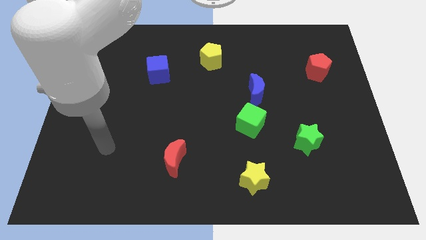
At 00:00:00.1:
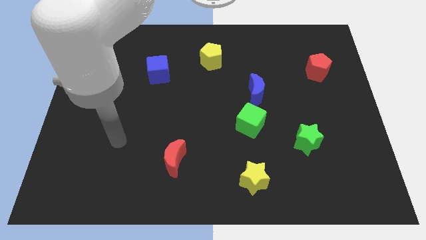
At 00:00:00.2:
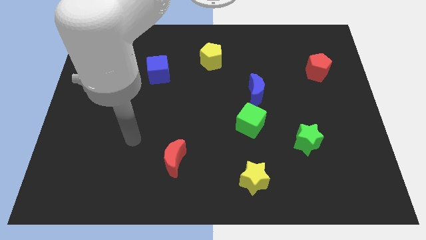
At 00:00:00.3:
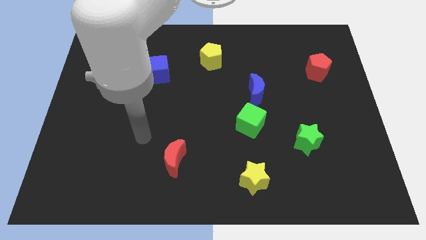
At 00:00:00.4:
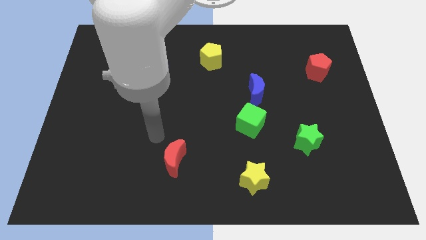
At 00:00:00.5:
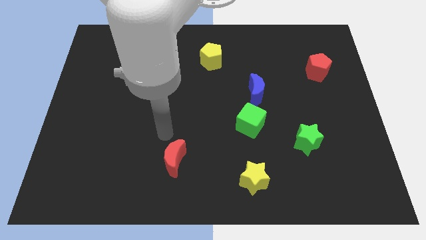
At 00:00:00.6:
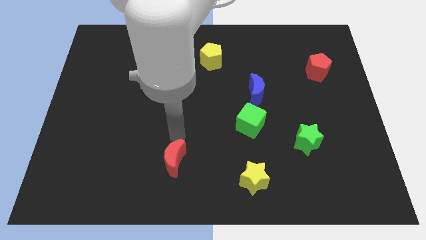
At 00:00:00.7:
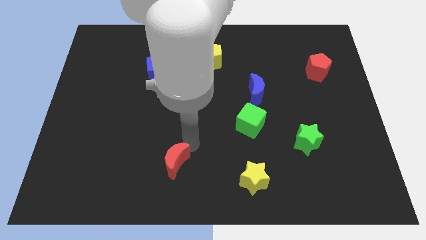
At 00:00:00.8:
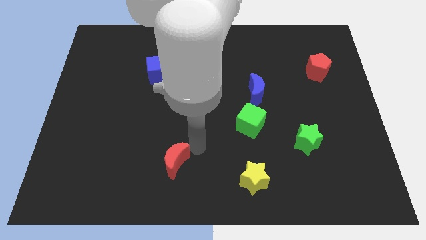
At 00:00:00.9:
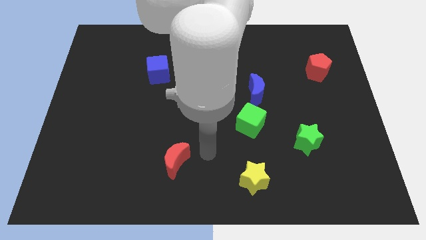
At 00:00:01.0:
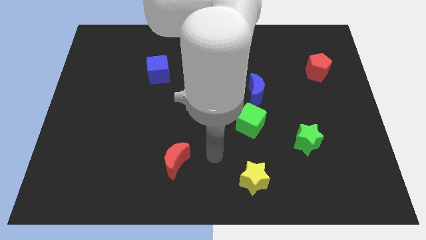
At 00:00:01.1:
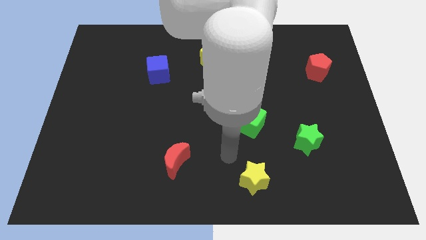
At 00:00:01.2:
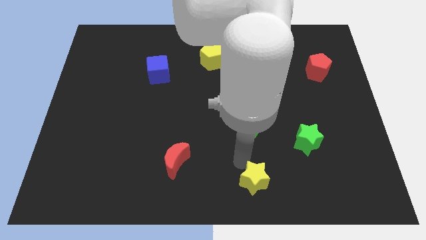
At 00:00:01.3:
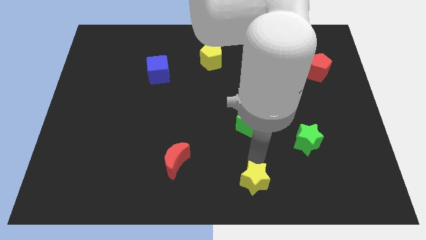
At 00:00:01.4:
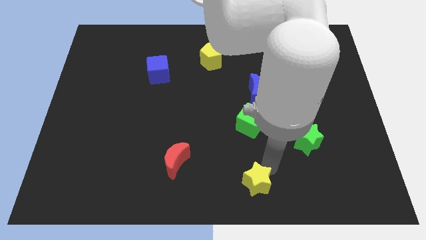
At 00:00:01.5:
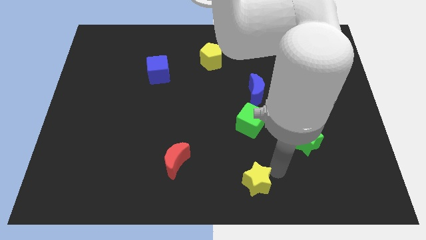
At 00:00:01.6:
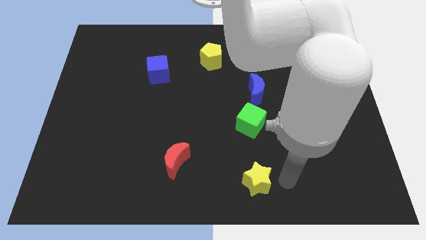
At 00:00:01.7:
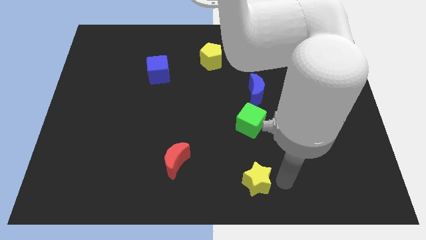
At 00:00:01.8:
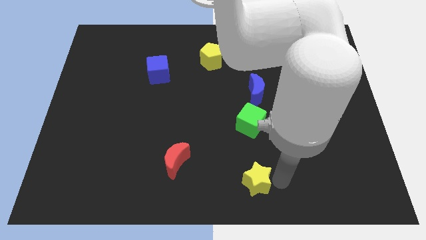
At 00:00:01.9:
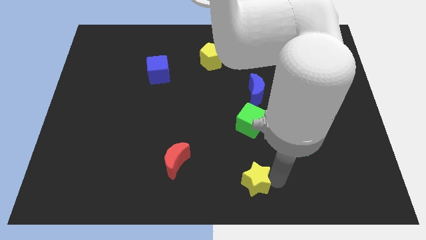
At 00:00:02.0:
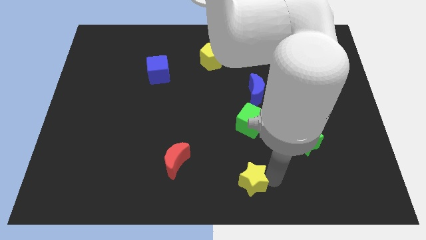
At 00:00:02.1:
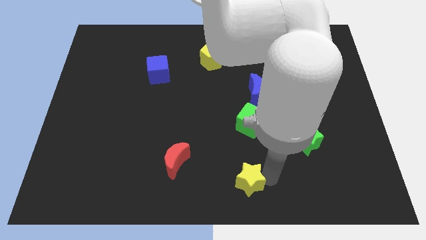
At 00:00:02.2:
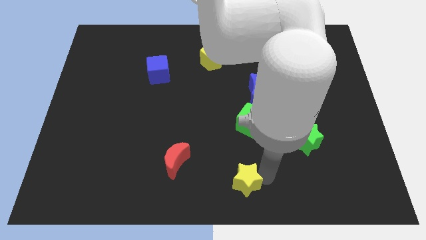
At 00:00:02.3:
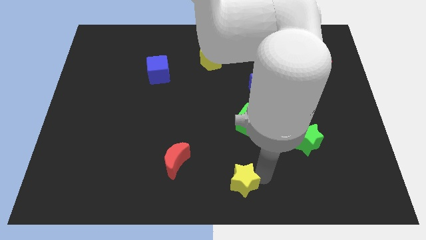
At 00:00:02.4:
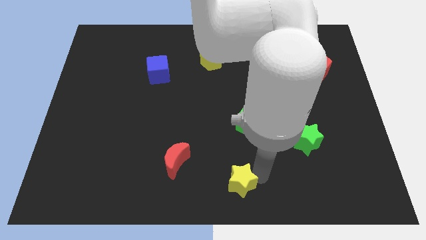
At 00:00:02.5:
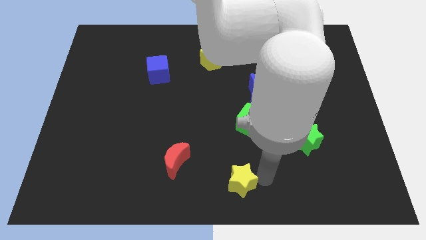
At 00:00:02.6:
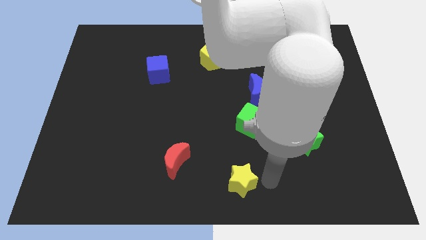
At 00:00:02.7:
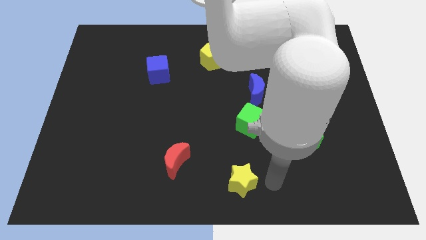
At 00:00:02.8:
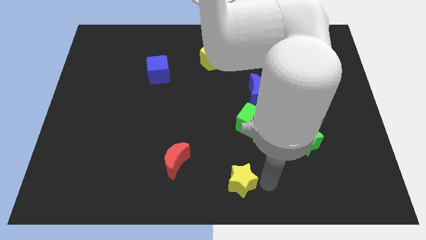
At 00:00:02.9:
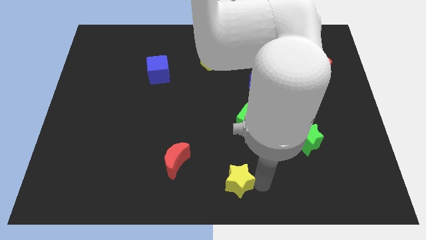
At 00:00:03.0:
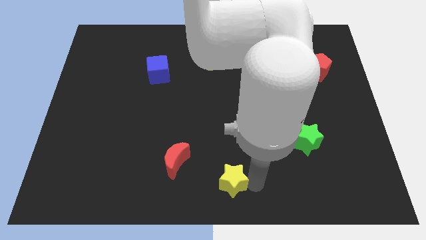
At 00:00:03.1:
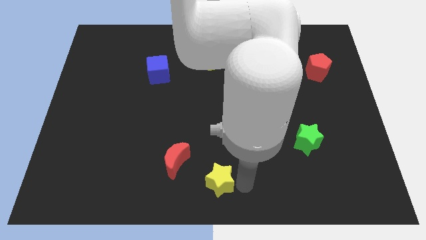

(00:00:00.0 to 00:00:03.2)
push the yellow star left somewhat

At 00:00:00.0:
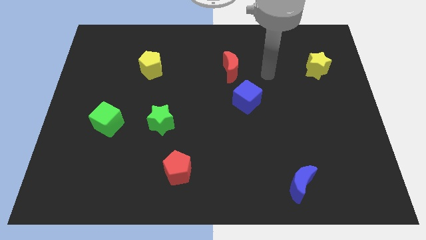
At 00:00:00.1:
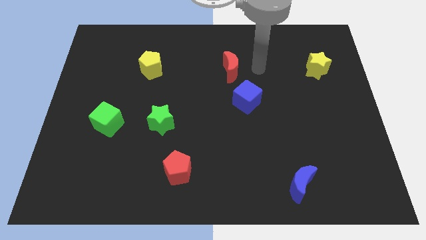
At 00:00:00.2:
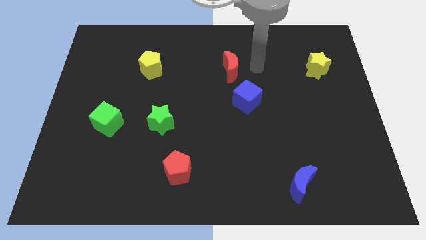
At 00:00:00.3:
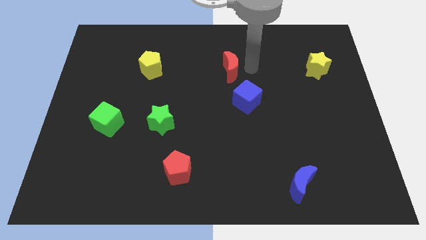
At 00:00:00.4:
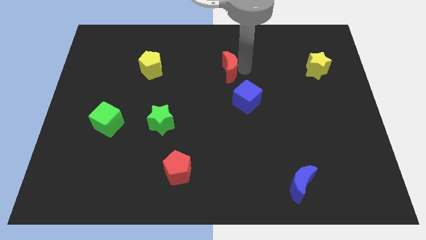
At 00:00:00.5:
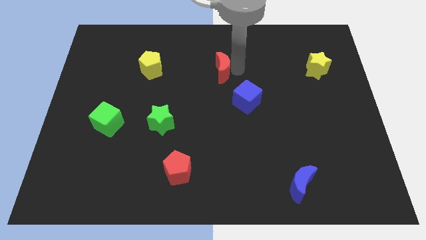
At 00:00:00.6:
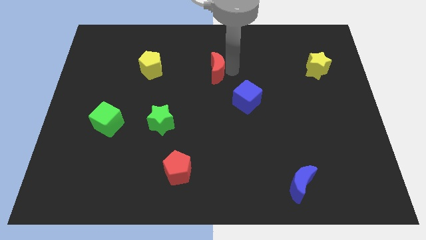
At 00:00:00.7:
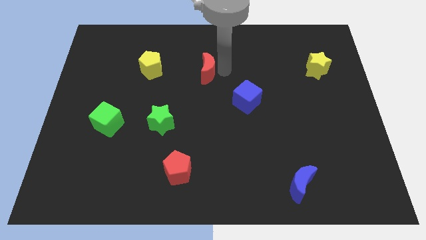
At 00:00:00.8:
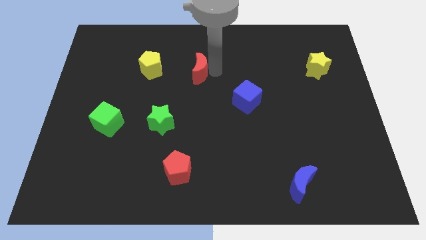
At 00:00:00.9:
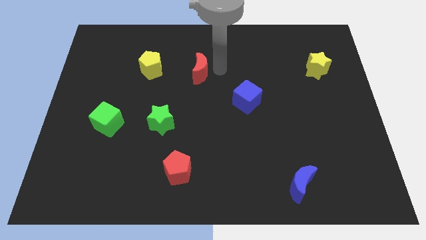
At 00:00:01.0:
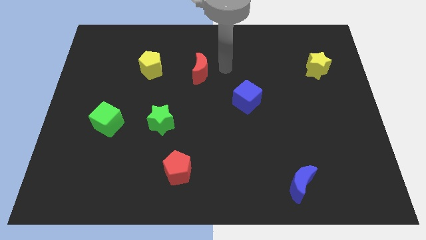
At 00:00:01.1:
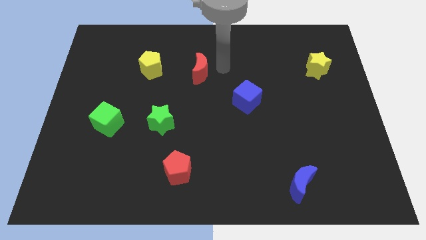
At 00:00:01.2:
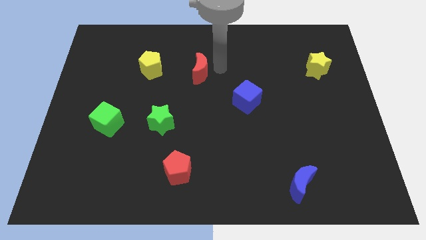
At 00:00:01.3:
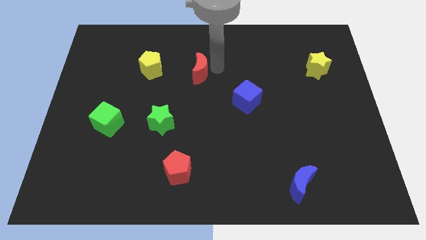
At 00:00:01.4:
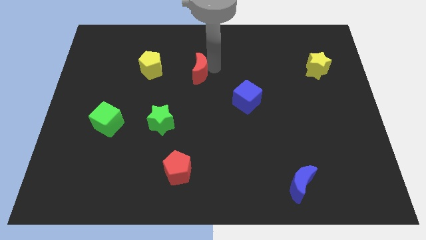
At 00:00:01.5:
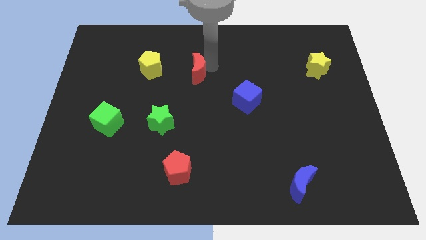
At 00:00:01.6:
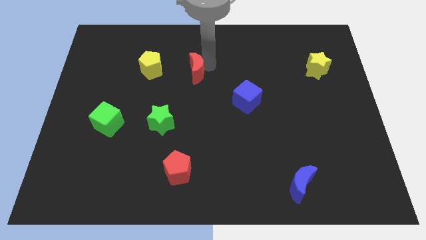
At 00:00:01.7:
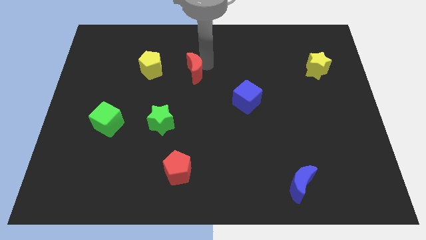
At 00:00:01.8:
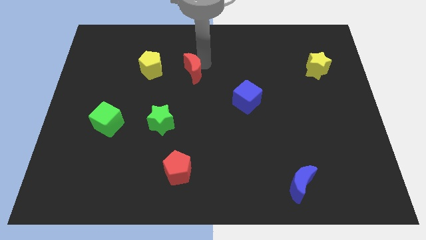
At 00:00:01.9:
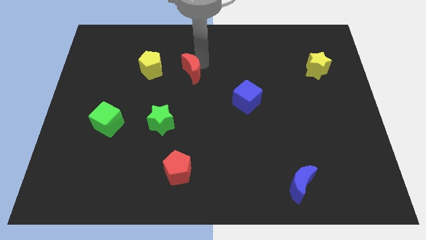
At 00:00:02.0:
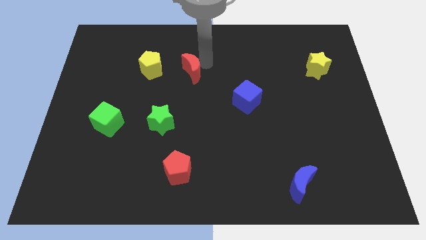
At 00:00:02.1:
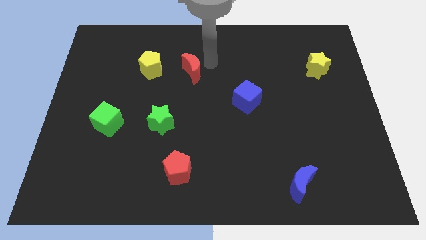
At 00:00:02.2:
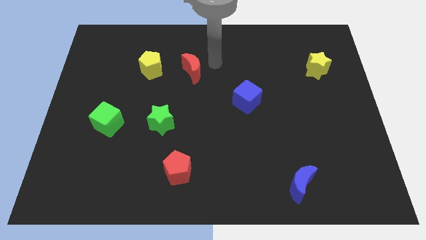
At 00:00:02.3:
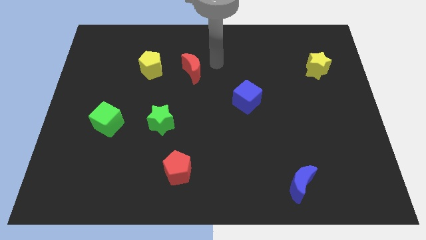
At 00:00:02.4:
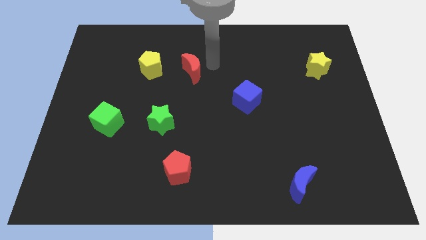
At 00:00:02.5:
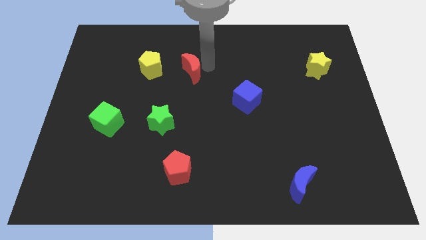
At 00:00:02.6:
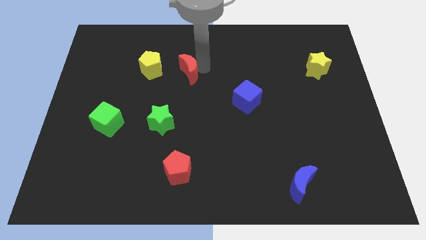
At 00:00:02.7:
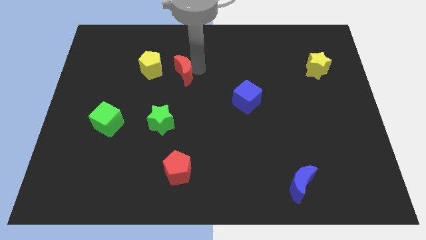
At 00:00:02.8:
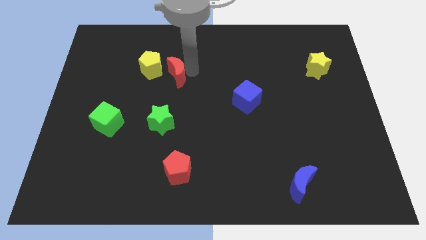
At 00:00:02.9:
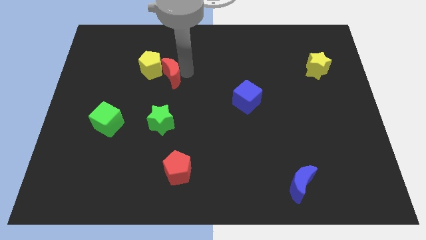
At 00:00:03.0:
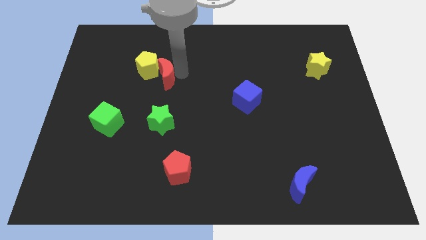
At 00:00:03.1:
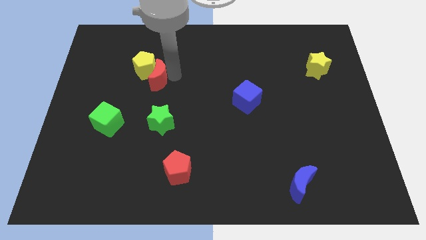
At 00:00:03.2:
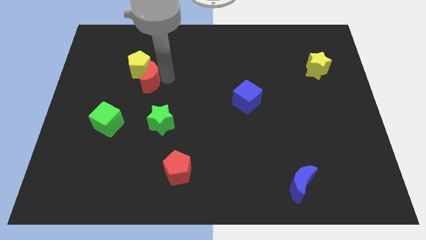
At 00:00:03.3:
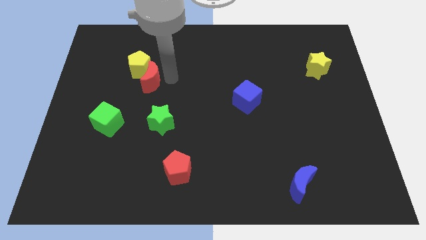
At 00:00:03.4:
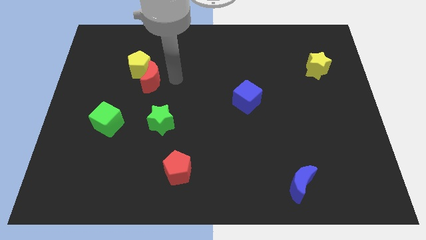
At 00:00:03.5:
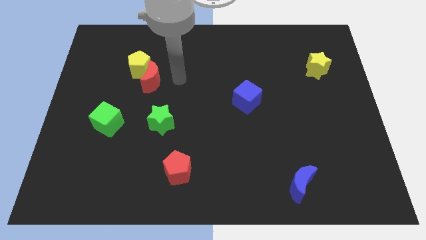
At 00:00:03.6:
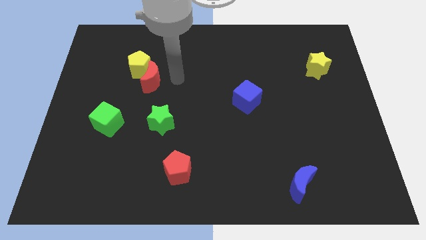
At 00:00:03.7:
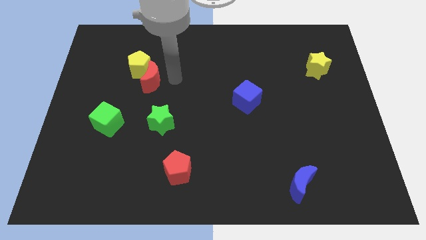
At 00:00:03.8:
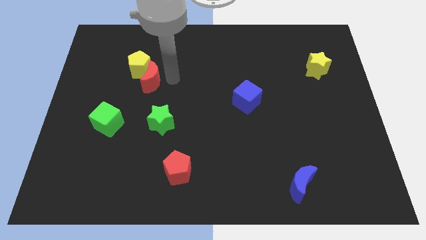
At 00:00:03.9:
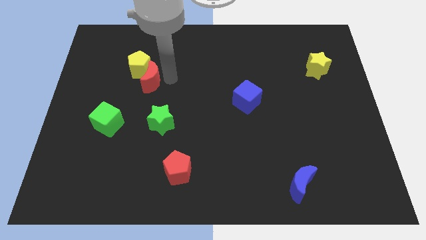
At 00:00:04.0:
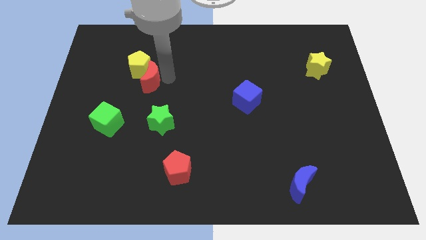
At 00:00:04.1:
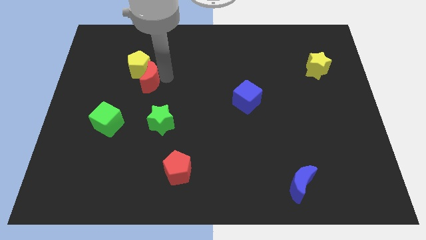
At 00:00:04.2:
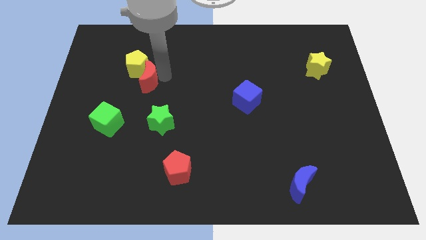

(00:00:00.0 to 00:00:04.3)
push the red moon left

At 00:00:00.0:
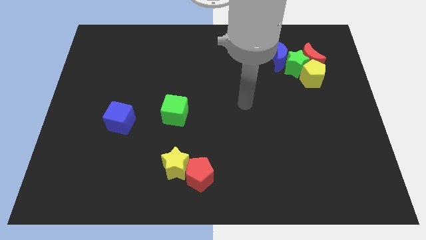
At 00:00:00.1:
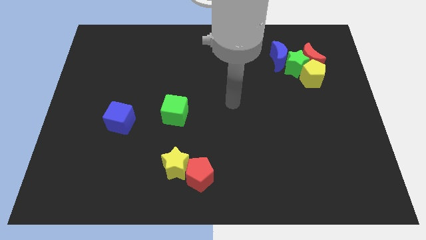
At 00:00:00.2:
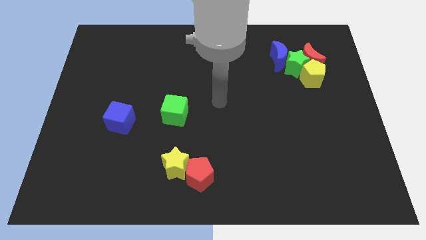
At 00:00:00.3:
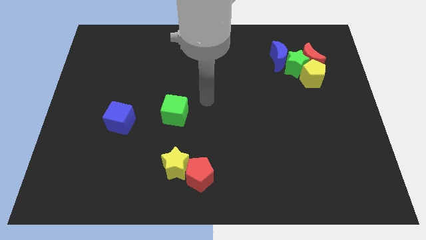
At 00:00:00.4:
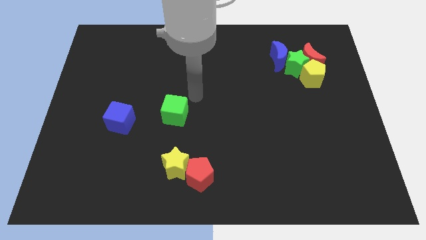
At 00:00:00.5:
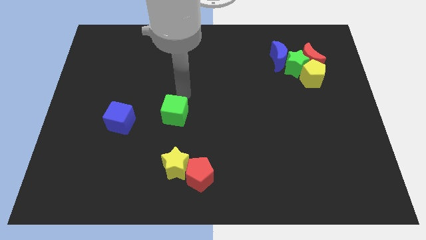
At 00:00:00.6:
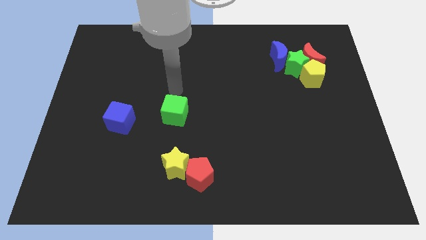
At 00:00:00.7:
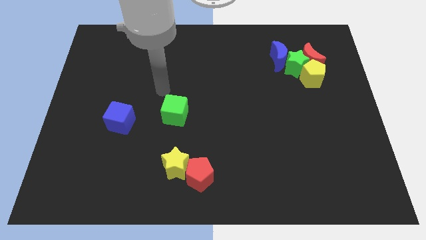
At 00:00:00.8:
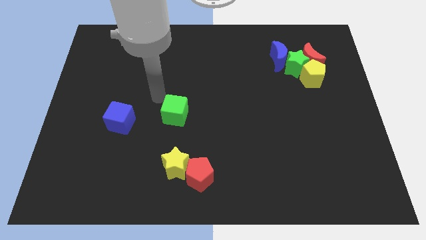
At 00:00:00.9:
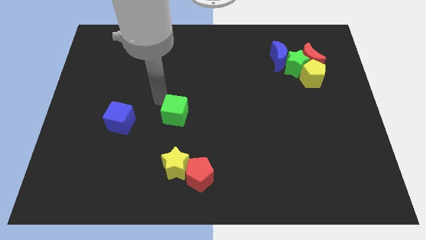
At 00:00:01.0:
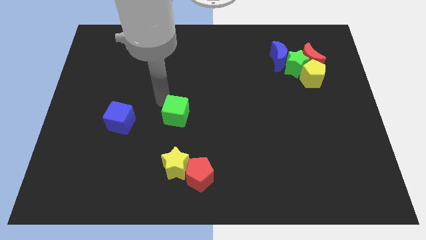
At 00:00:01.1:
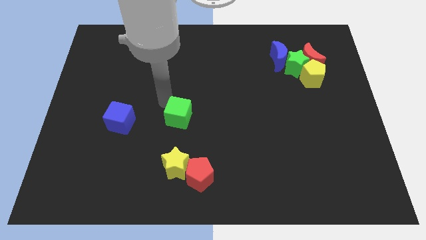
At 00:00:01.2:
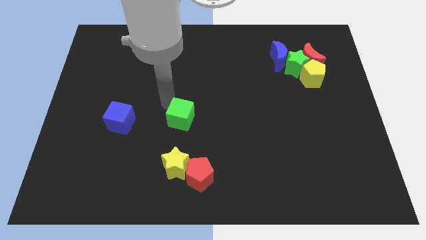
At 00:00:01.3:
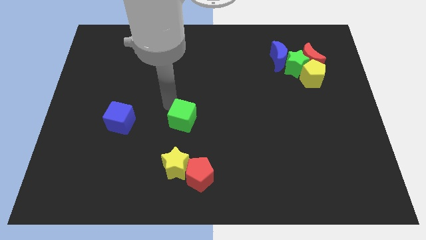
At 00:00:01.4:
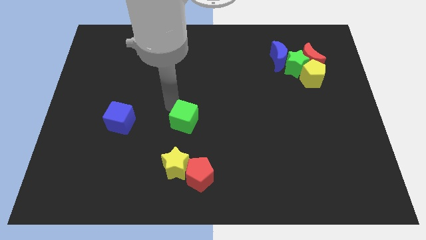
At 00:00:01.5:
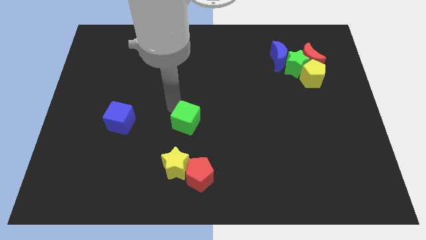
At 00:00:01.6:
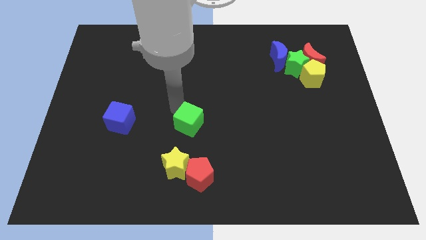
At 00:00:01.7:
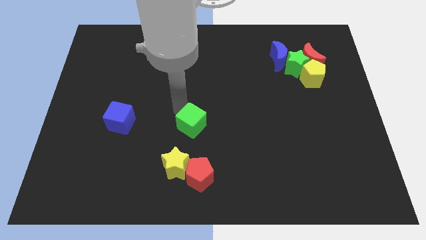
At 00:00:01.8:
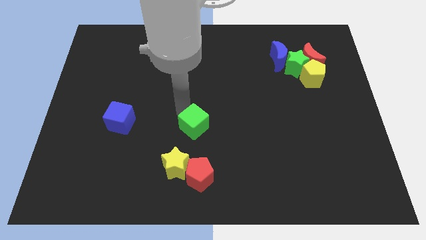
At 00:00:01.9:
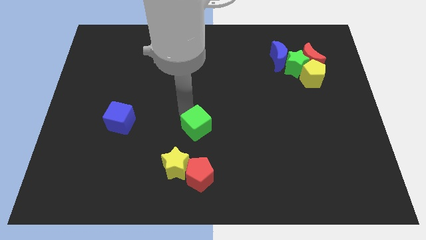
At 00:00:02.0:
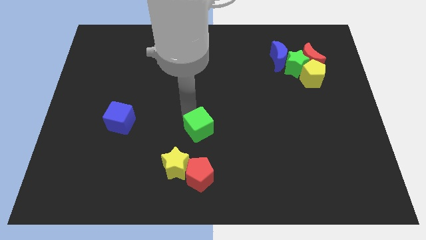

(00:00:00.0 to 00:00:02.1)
slightly push the green cube down and to the right diagonally
